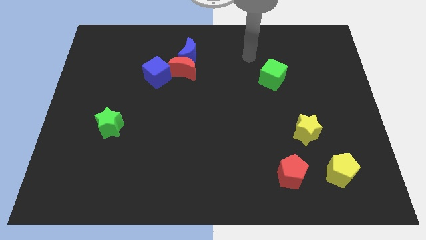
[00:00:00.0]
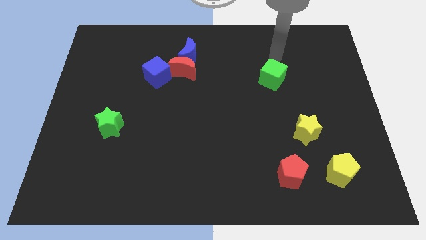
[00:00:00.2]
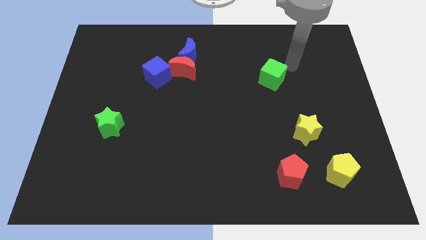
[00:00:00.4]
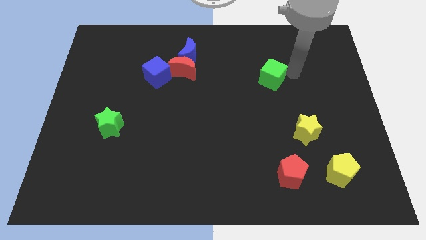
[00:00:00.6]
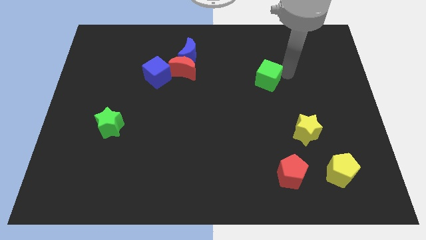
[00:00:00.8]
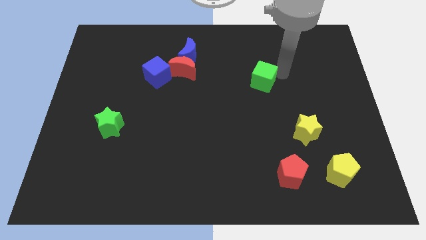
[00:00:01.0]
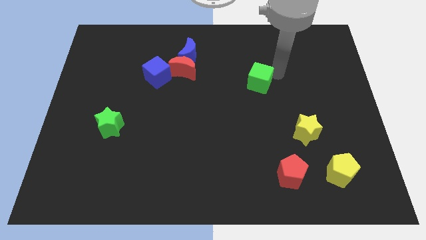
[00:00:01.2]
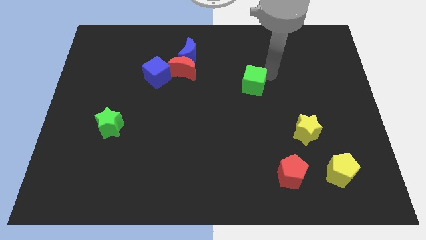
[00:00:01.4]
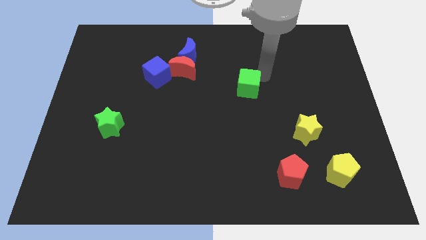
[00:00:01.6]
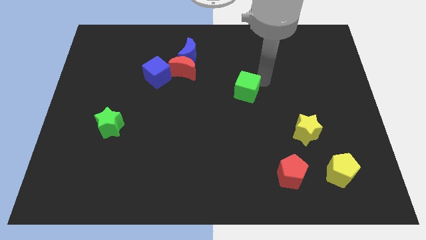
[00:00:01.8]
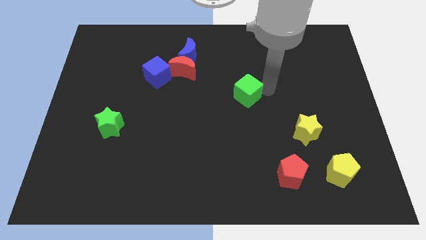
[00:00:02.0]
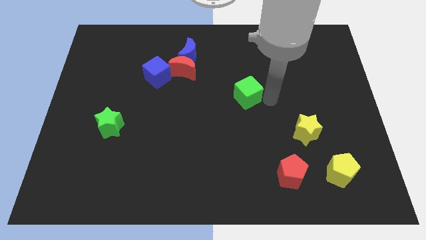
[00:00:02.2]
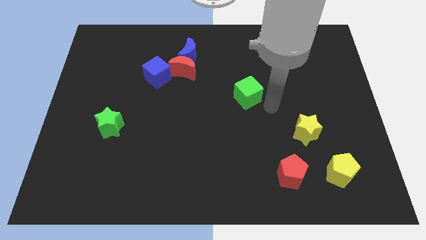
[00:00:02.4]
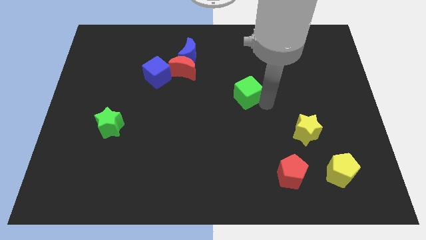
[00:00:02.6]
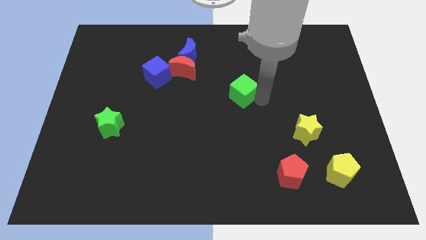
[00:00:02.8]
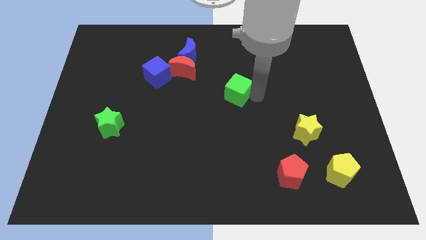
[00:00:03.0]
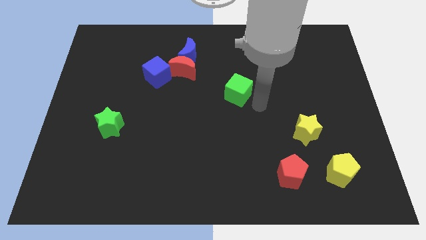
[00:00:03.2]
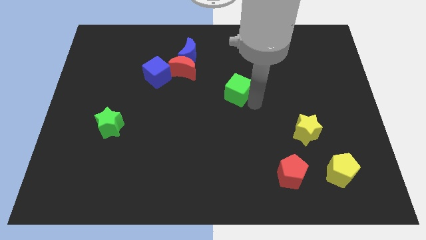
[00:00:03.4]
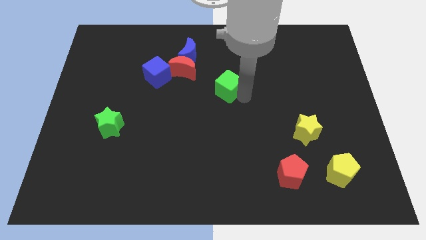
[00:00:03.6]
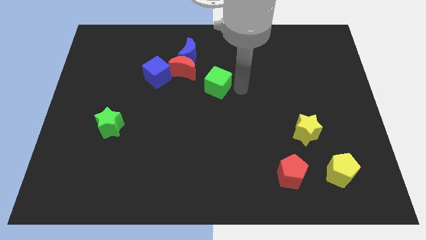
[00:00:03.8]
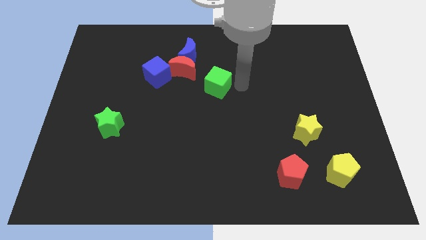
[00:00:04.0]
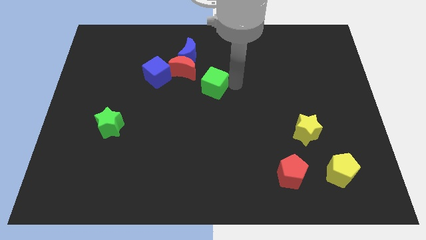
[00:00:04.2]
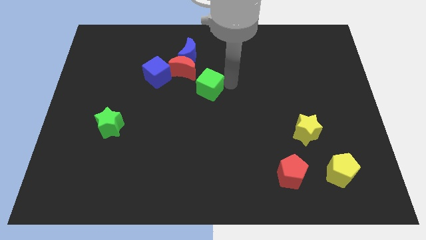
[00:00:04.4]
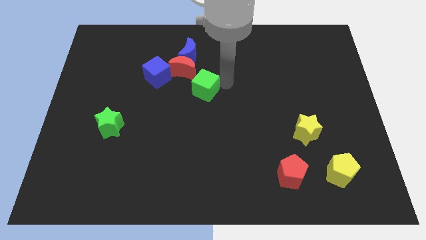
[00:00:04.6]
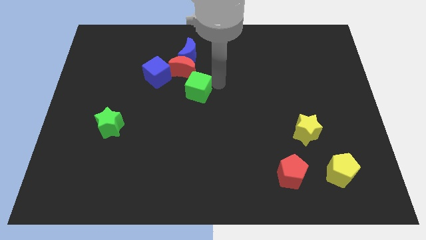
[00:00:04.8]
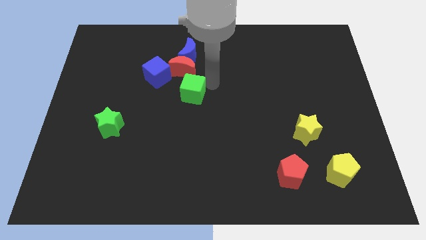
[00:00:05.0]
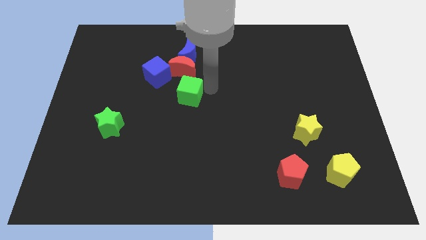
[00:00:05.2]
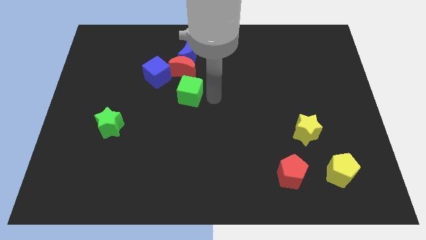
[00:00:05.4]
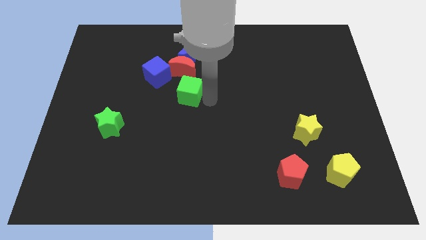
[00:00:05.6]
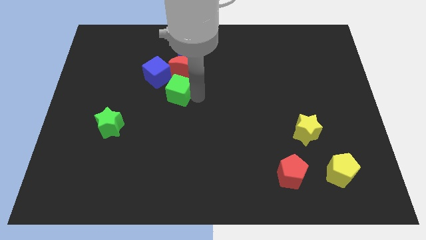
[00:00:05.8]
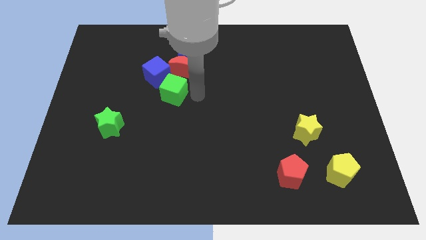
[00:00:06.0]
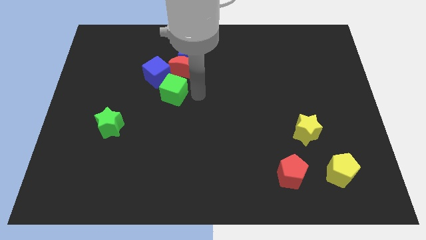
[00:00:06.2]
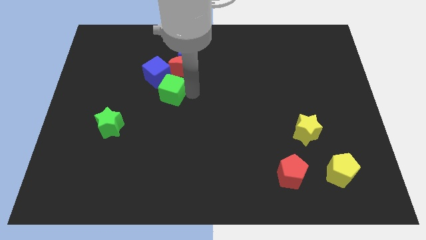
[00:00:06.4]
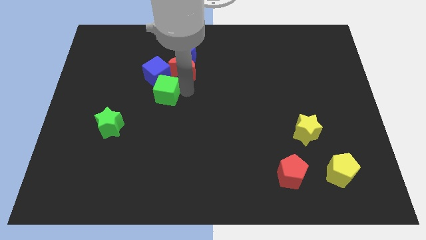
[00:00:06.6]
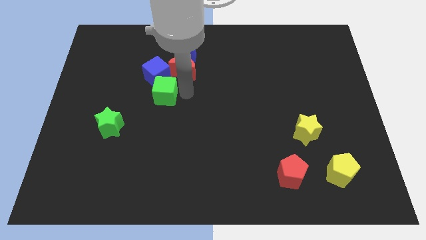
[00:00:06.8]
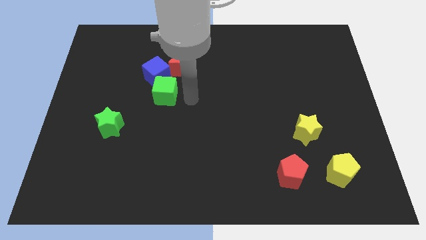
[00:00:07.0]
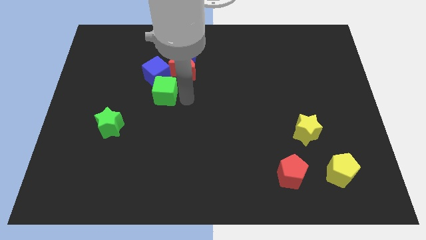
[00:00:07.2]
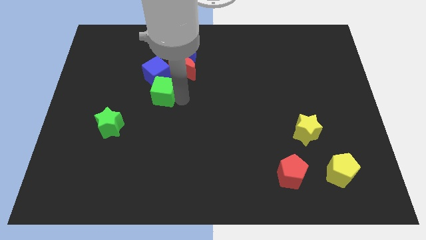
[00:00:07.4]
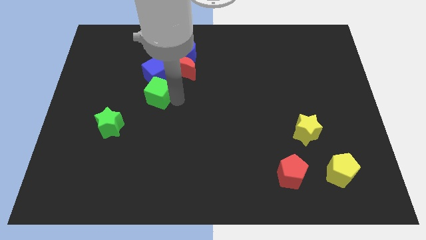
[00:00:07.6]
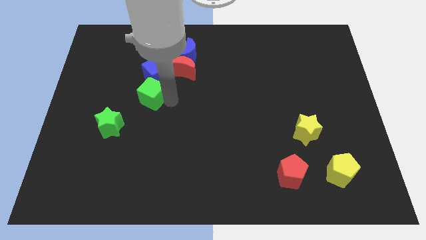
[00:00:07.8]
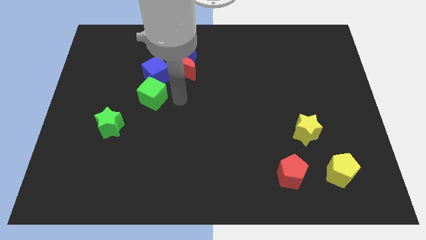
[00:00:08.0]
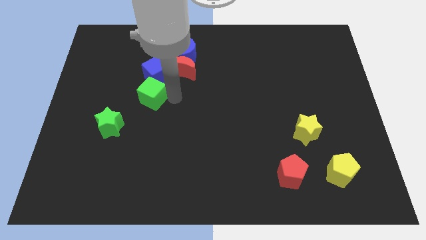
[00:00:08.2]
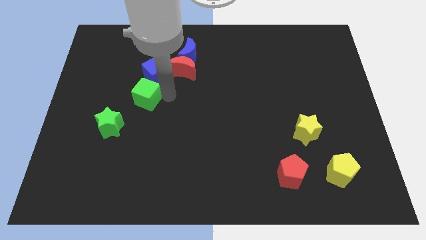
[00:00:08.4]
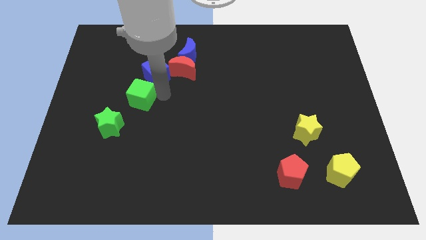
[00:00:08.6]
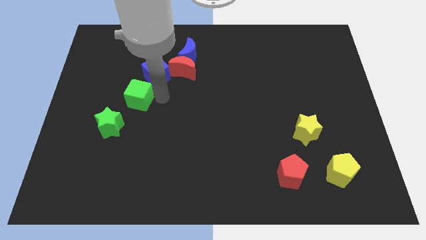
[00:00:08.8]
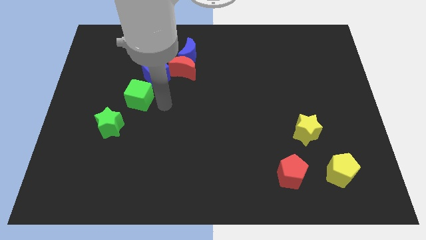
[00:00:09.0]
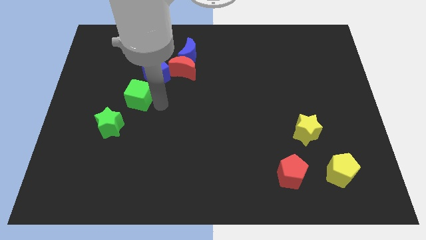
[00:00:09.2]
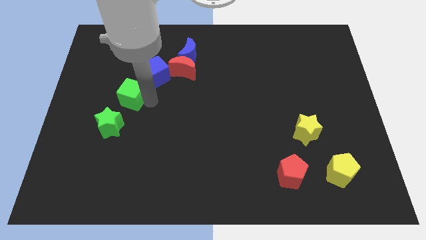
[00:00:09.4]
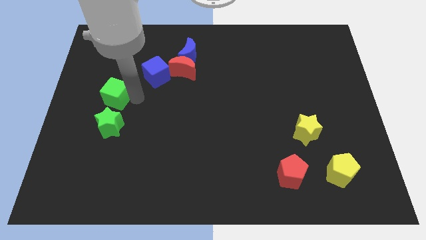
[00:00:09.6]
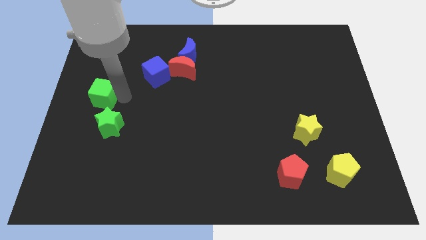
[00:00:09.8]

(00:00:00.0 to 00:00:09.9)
put the green cube to the center left

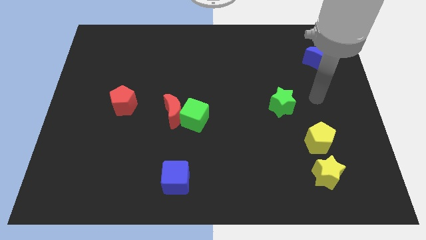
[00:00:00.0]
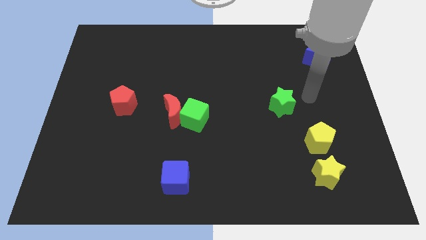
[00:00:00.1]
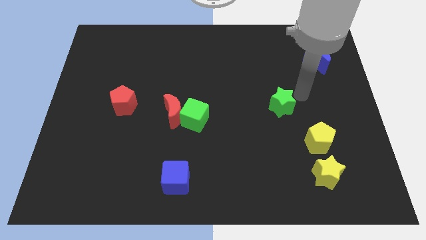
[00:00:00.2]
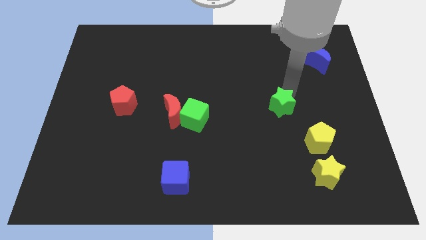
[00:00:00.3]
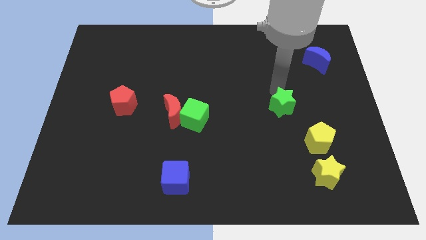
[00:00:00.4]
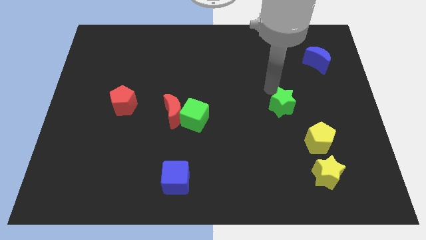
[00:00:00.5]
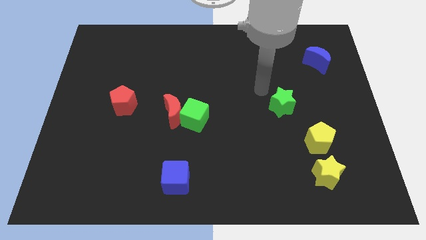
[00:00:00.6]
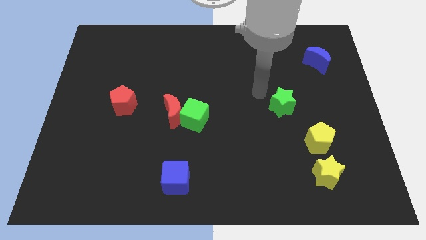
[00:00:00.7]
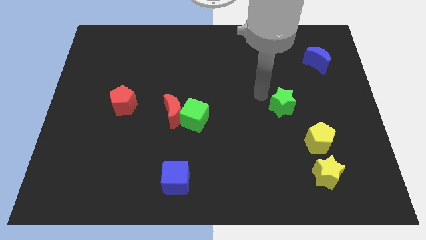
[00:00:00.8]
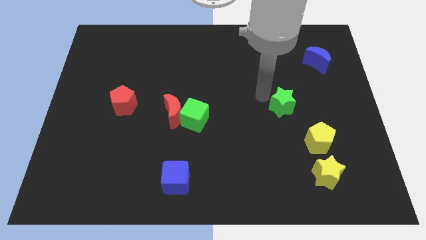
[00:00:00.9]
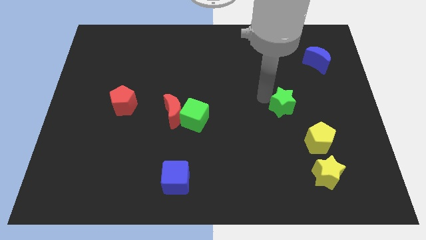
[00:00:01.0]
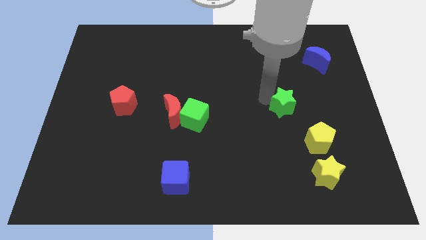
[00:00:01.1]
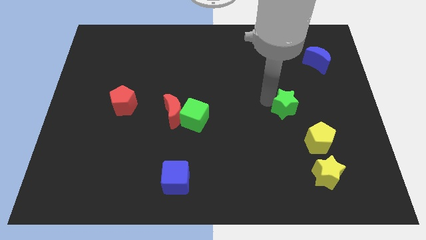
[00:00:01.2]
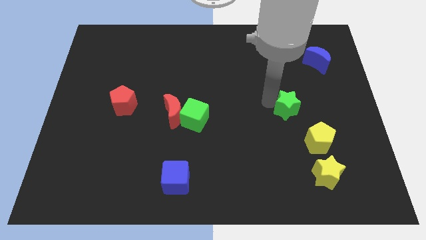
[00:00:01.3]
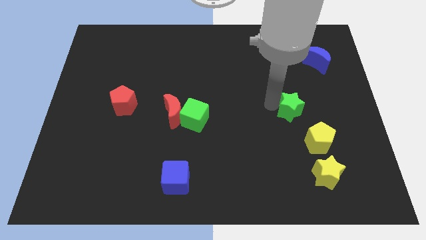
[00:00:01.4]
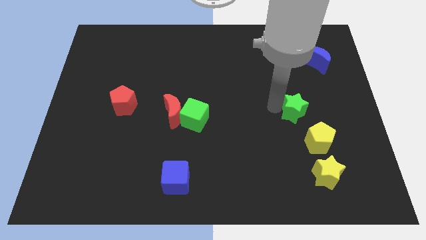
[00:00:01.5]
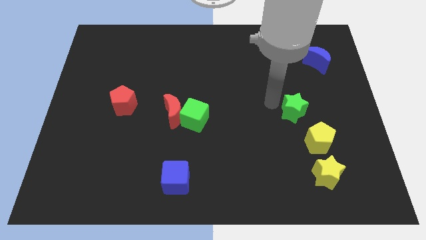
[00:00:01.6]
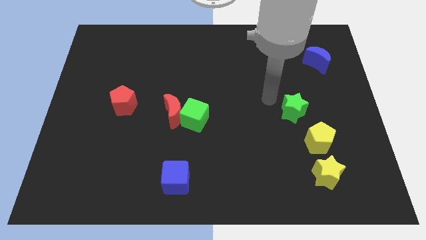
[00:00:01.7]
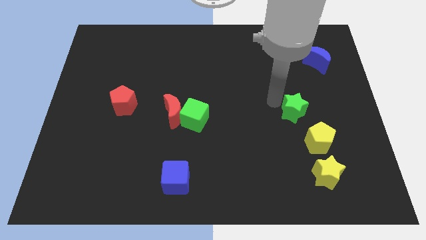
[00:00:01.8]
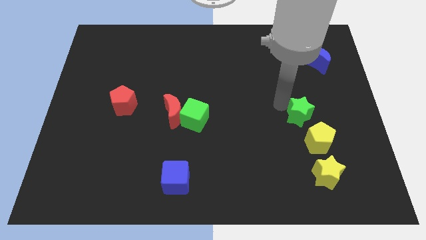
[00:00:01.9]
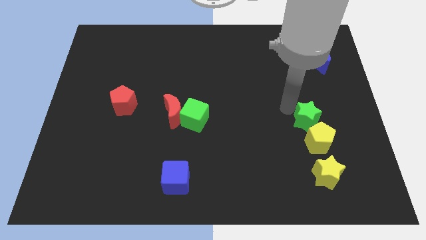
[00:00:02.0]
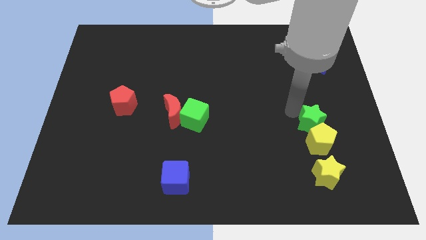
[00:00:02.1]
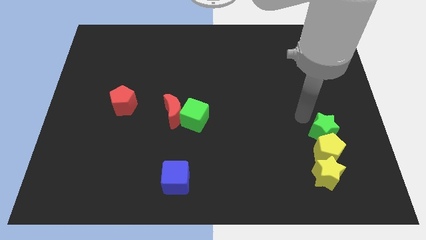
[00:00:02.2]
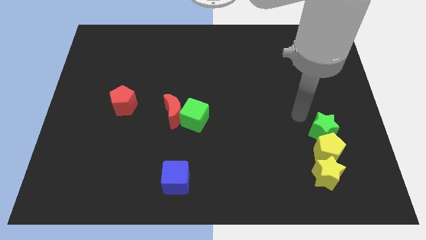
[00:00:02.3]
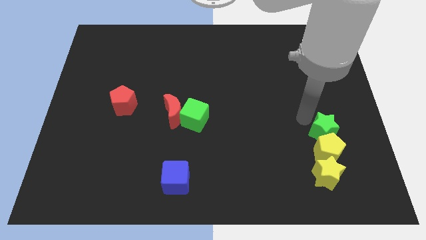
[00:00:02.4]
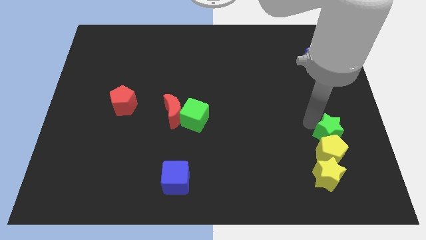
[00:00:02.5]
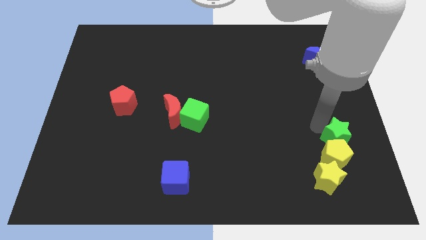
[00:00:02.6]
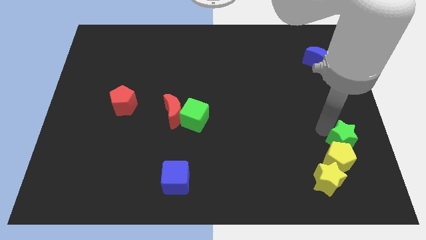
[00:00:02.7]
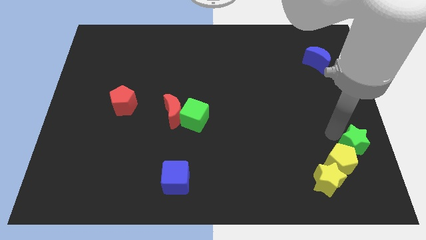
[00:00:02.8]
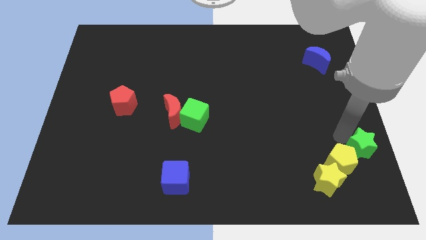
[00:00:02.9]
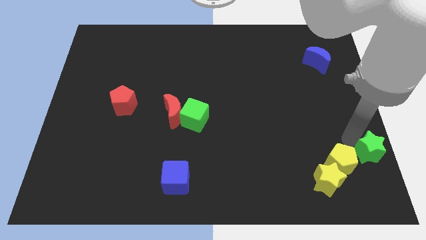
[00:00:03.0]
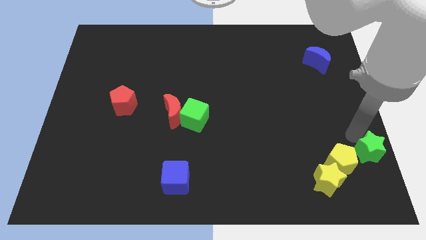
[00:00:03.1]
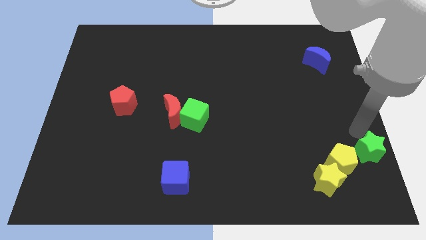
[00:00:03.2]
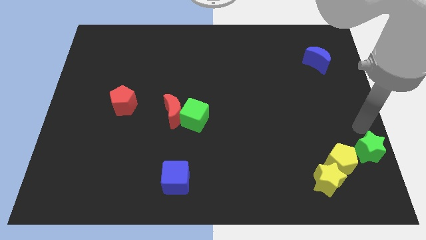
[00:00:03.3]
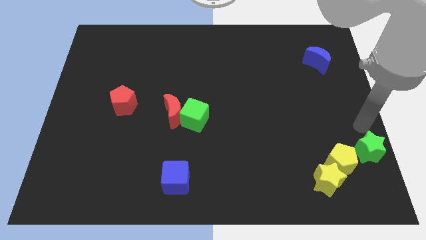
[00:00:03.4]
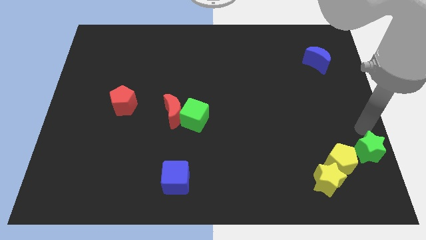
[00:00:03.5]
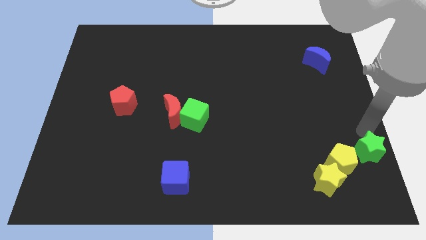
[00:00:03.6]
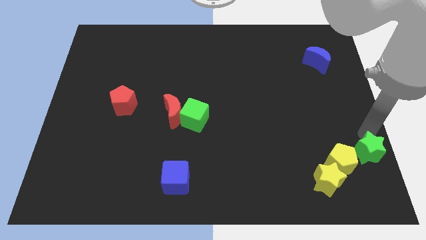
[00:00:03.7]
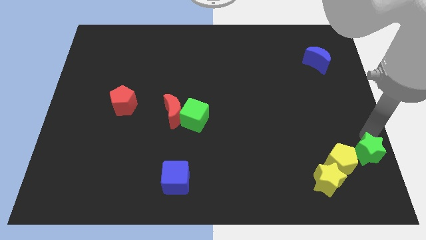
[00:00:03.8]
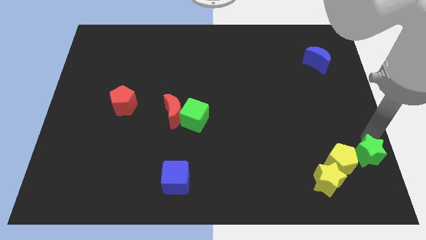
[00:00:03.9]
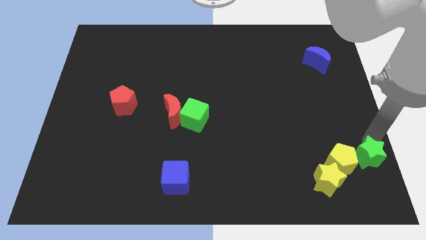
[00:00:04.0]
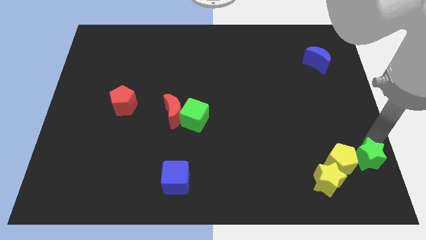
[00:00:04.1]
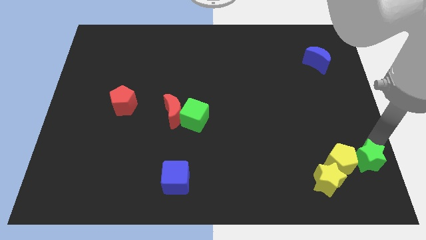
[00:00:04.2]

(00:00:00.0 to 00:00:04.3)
slide the green star to the lower right corner
